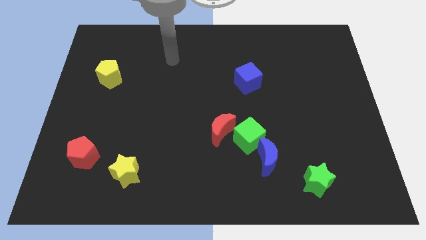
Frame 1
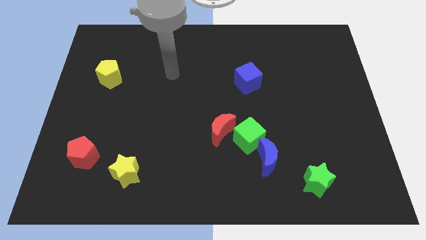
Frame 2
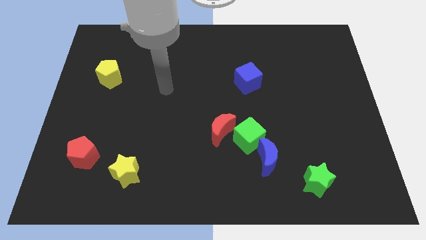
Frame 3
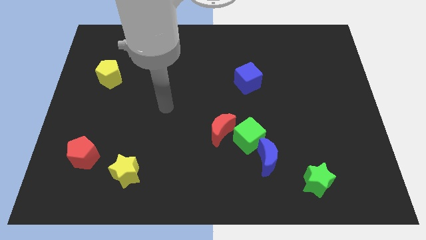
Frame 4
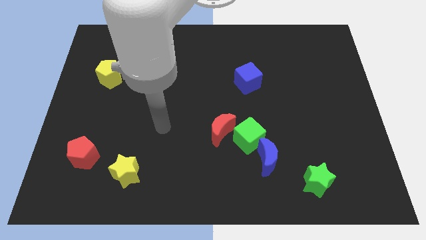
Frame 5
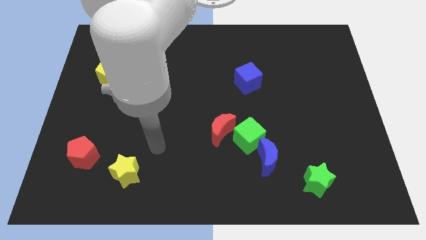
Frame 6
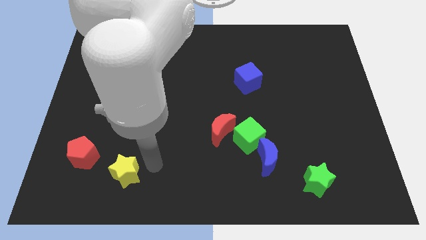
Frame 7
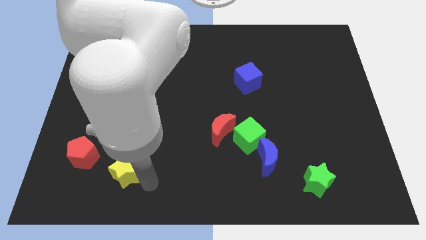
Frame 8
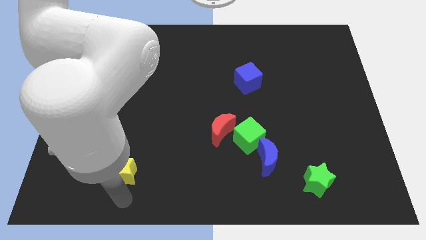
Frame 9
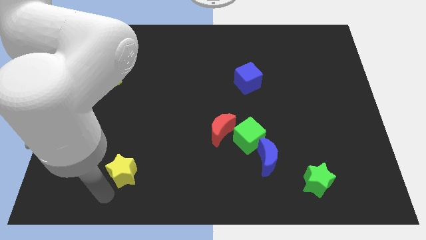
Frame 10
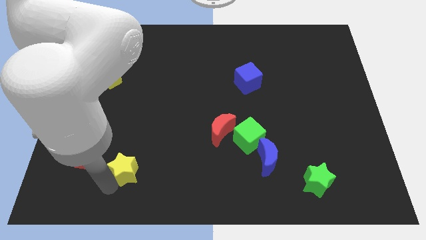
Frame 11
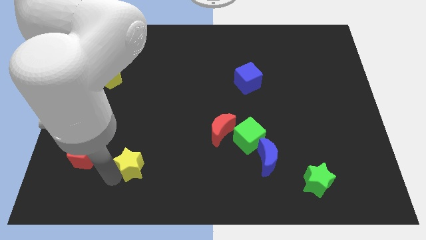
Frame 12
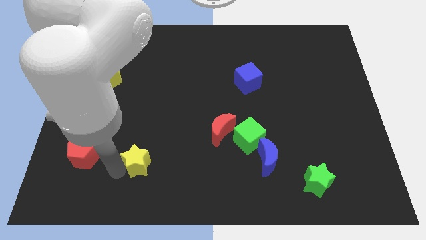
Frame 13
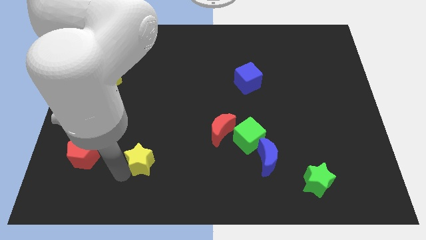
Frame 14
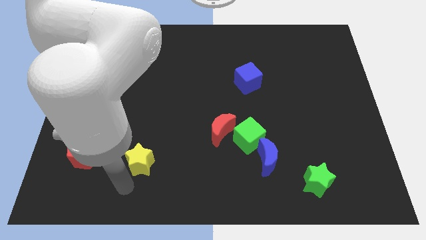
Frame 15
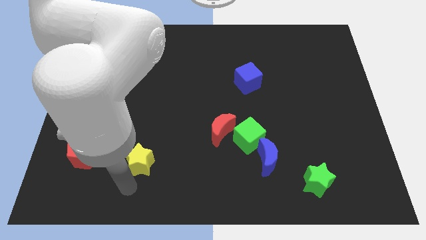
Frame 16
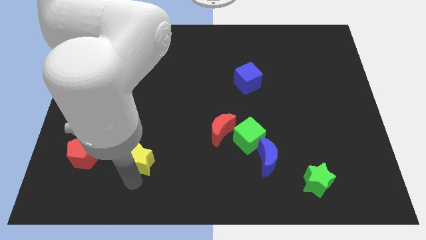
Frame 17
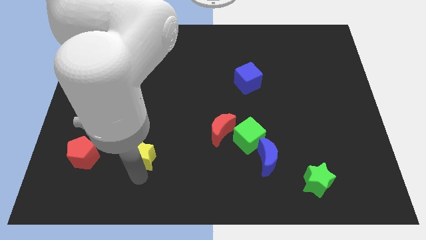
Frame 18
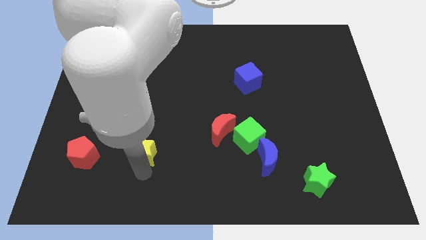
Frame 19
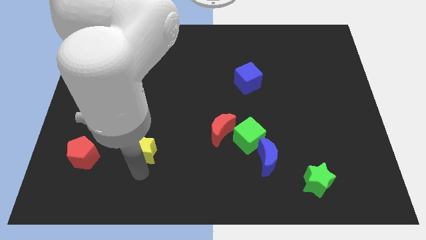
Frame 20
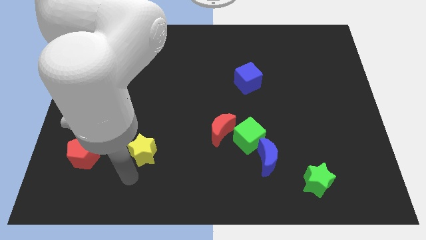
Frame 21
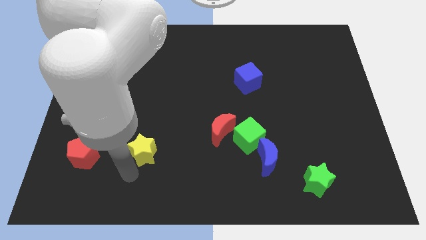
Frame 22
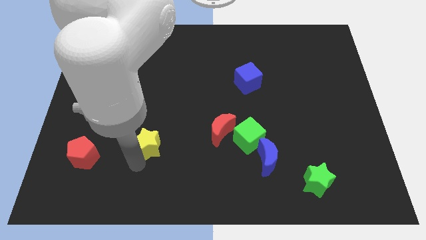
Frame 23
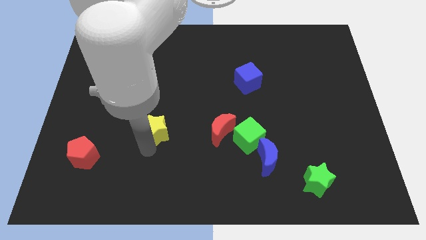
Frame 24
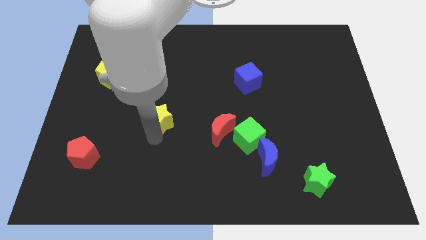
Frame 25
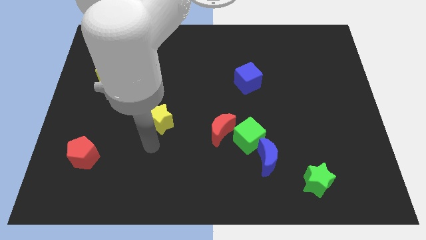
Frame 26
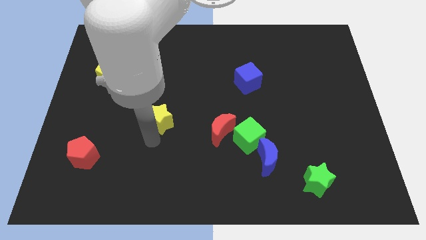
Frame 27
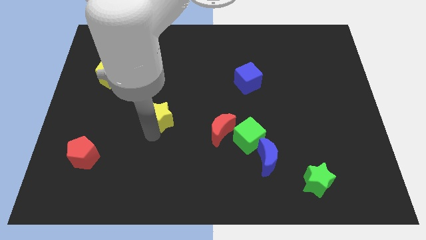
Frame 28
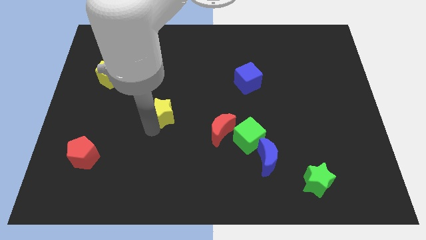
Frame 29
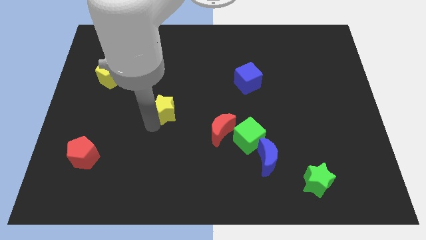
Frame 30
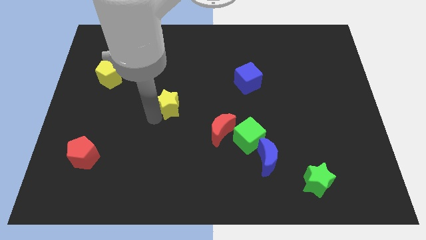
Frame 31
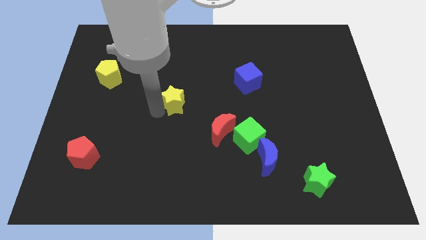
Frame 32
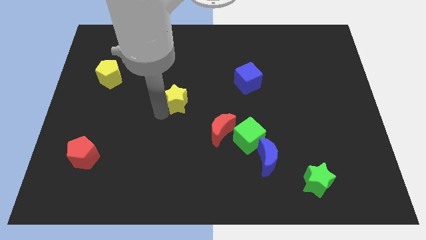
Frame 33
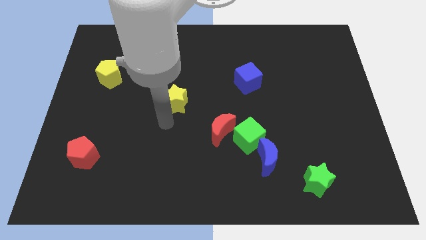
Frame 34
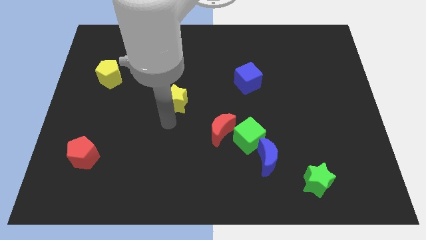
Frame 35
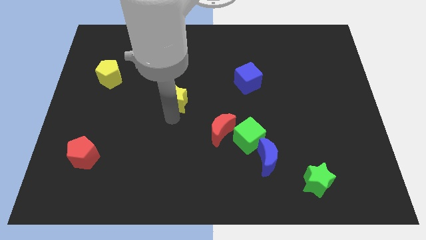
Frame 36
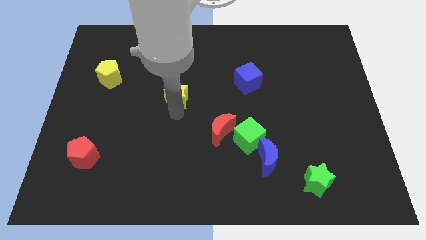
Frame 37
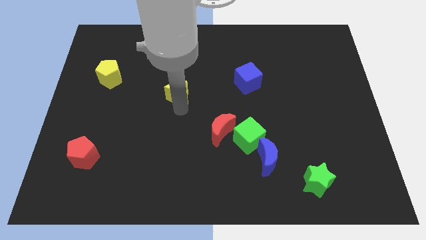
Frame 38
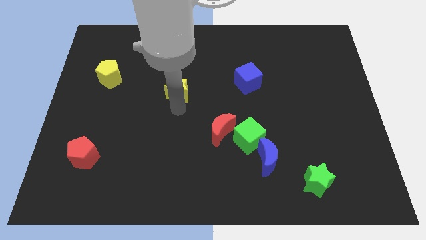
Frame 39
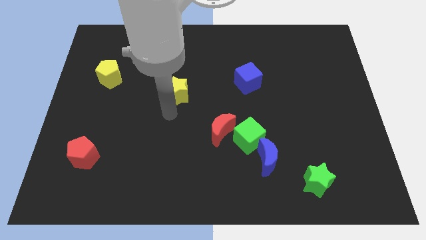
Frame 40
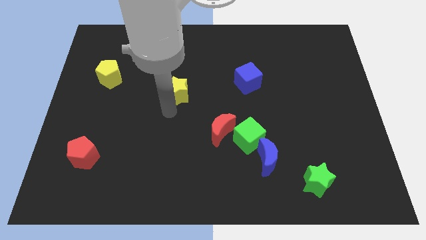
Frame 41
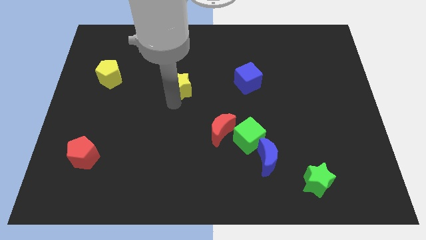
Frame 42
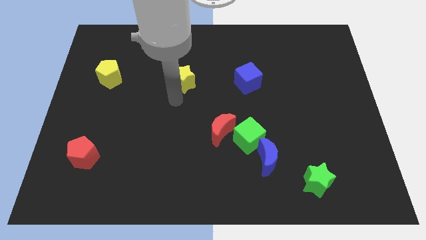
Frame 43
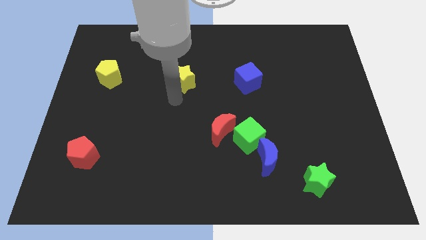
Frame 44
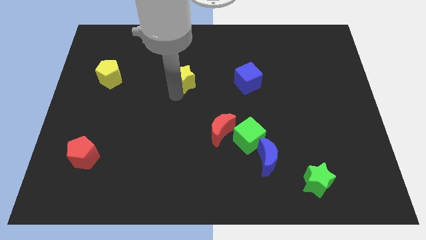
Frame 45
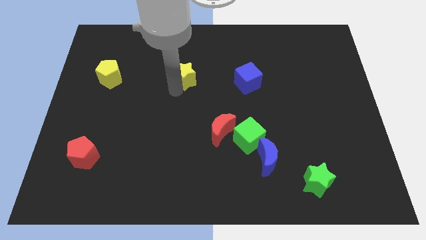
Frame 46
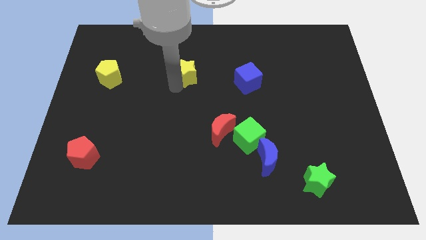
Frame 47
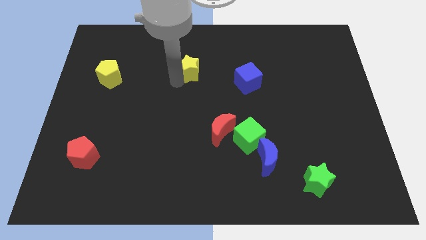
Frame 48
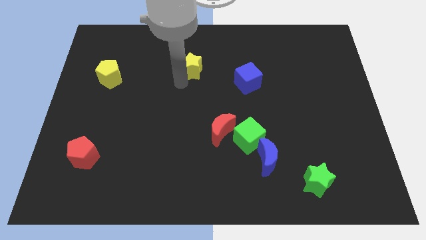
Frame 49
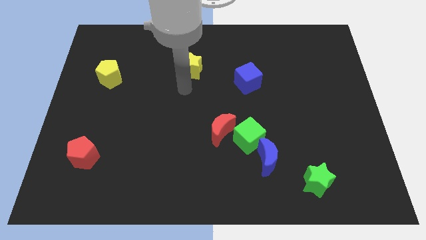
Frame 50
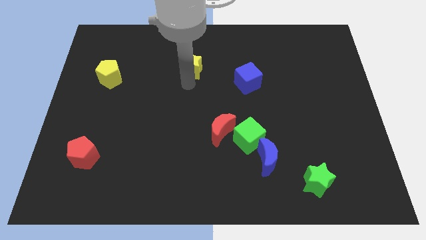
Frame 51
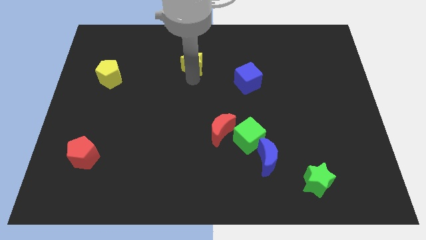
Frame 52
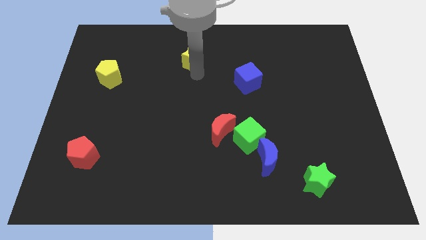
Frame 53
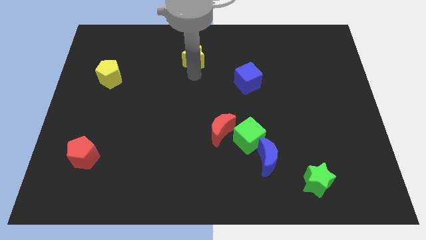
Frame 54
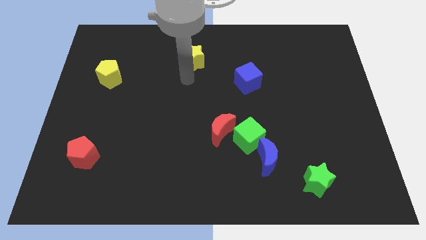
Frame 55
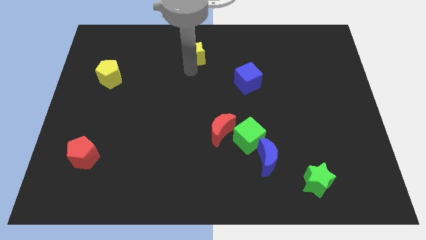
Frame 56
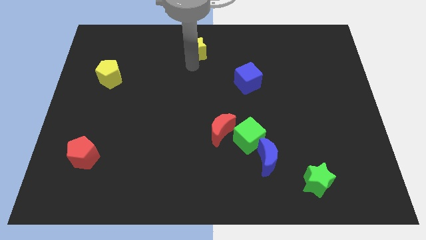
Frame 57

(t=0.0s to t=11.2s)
put the yellow star to the towards your base
